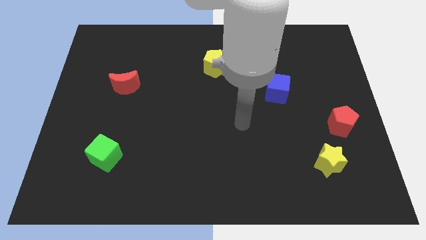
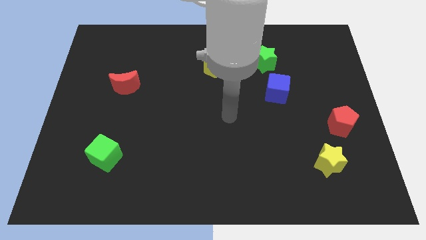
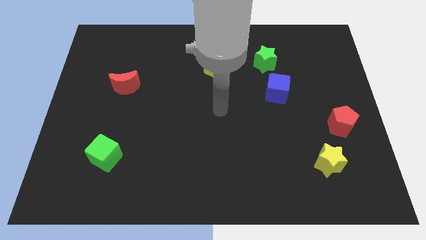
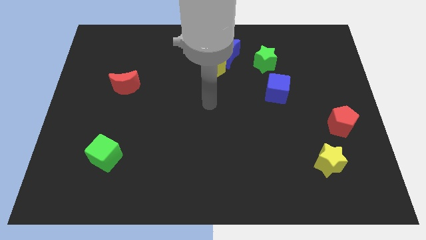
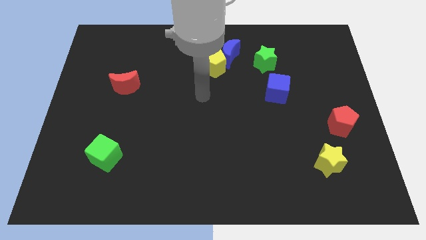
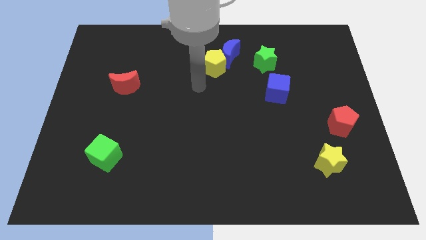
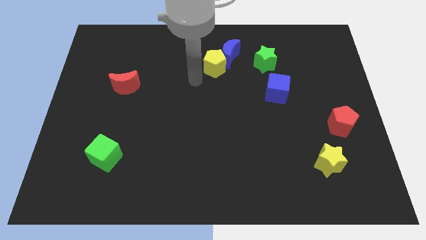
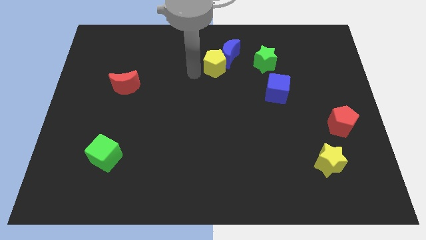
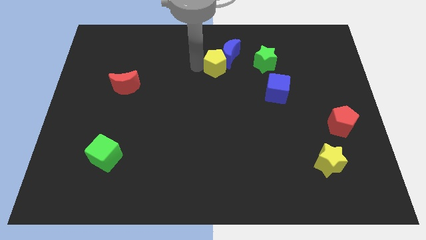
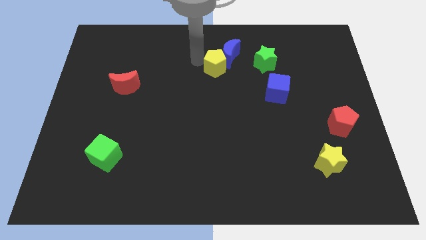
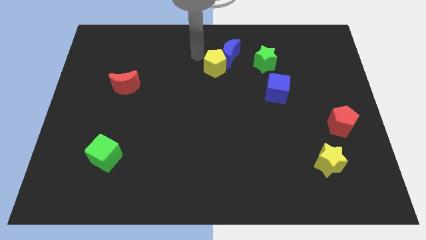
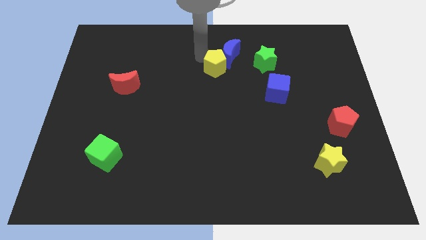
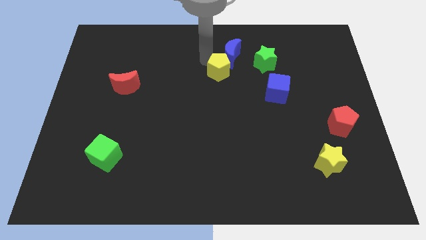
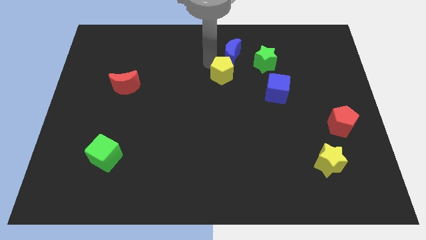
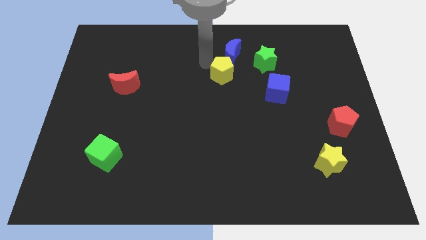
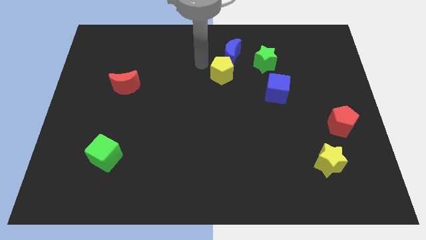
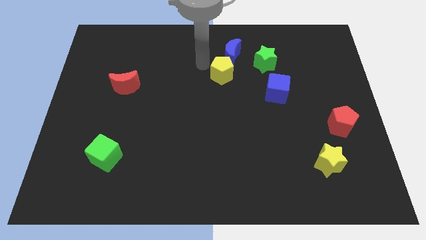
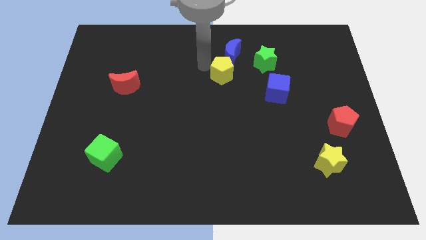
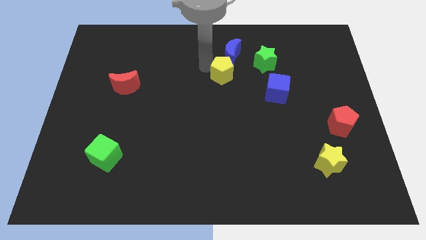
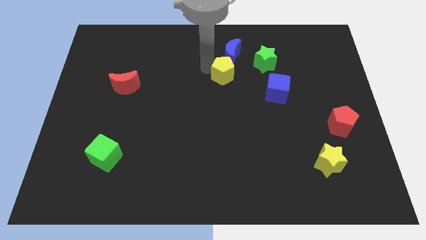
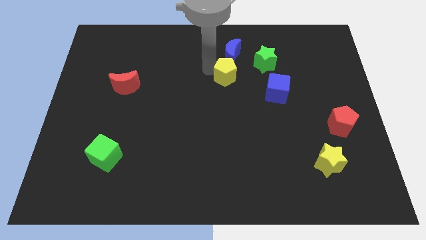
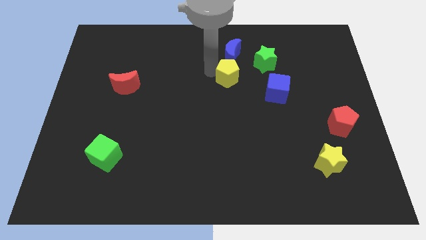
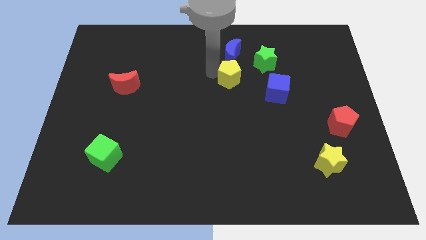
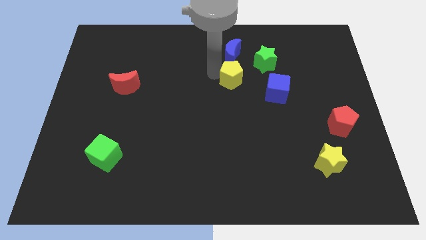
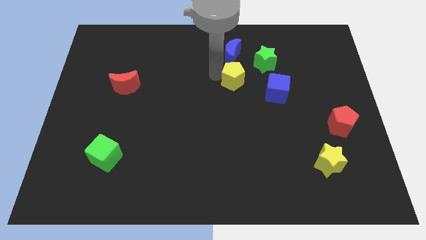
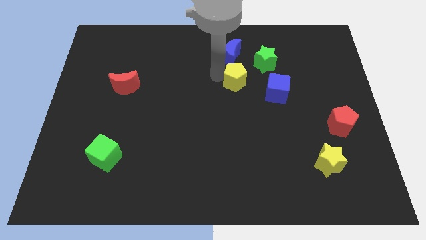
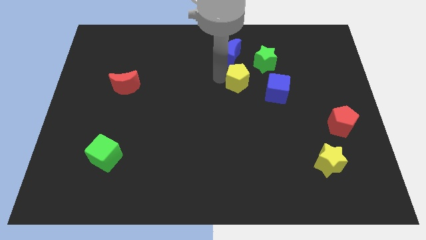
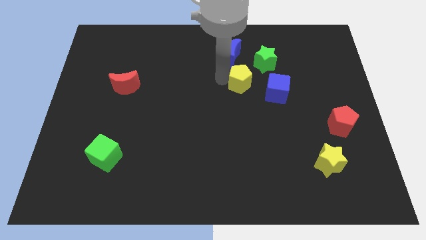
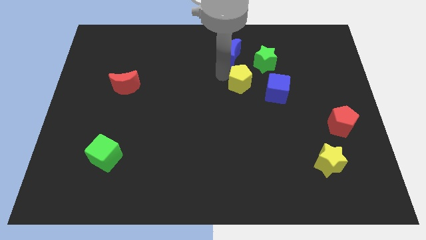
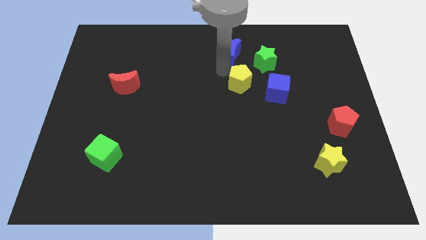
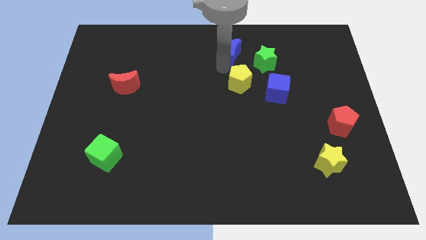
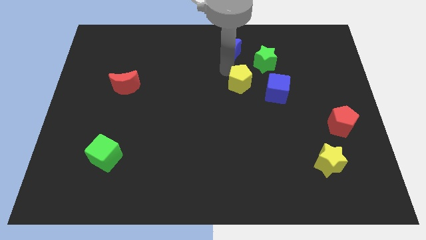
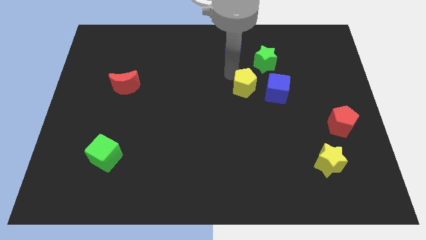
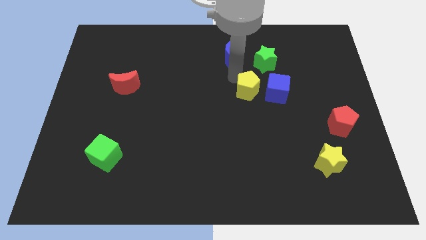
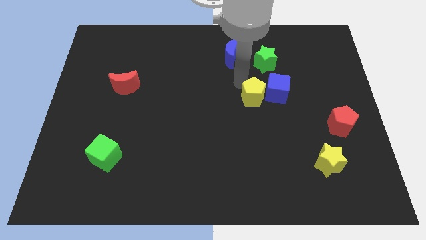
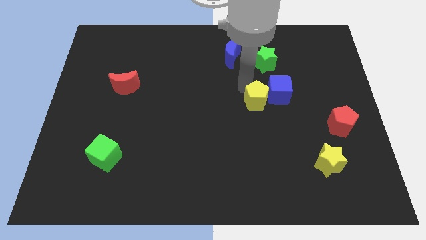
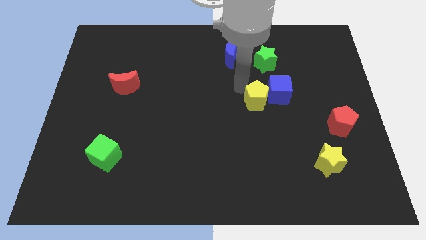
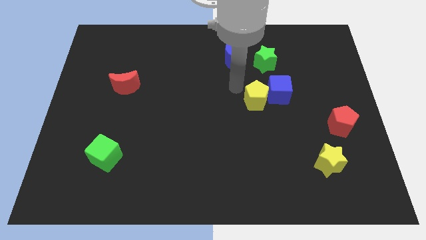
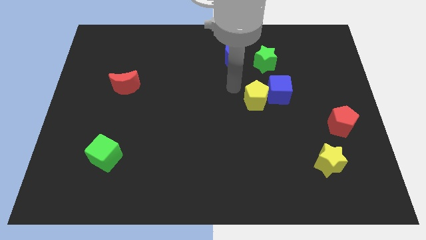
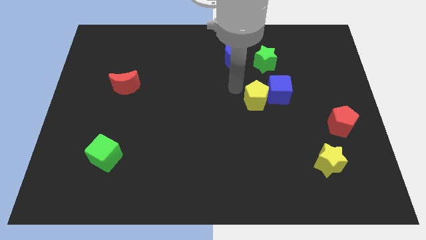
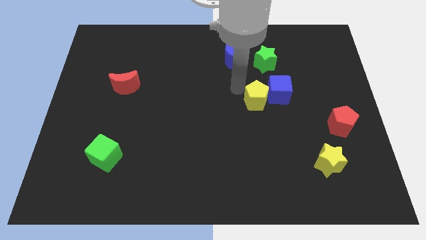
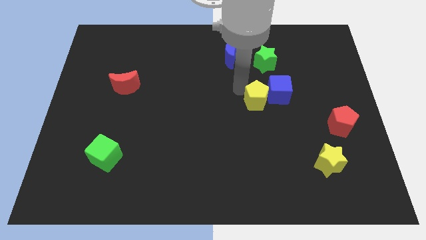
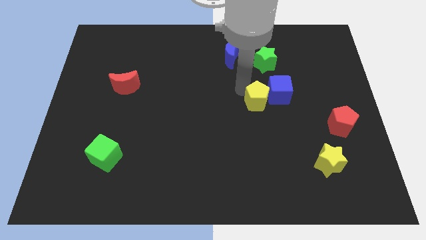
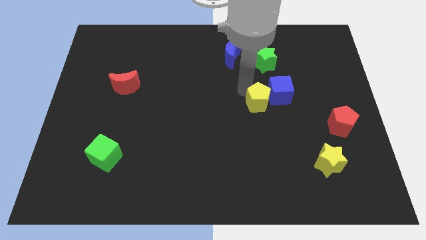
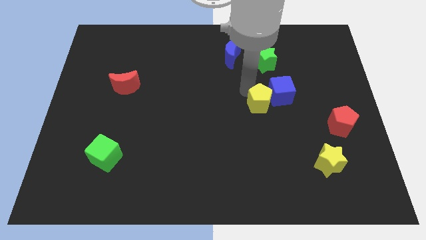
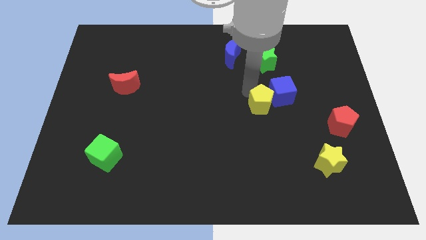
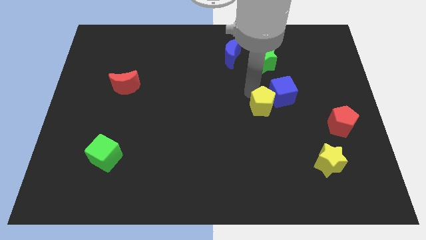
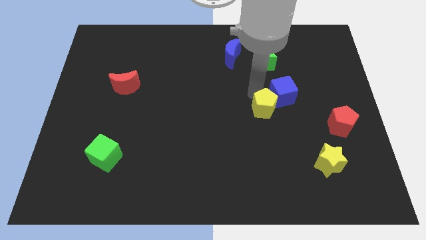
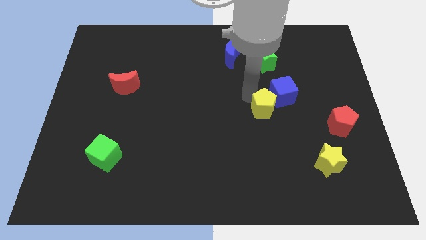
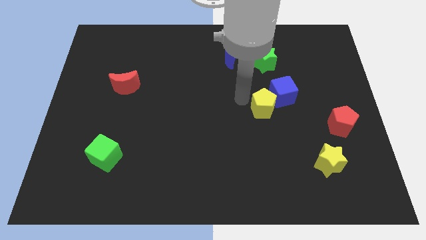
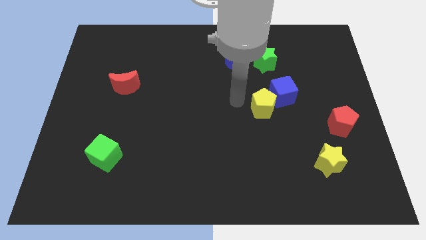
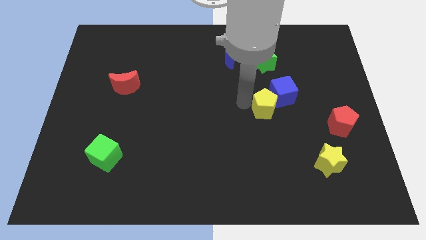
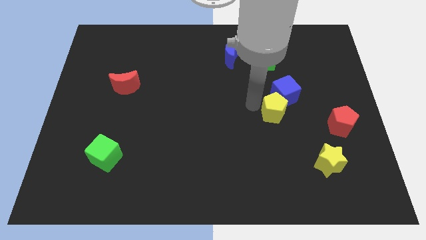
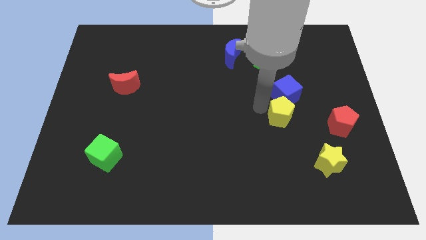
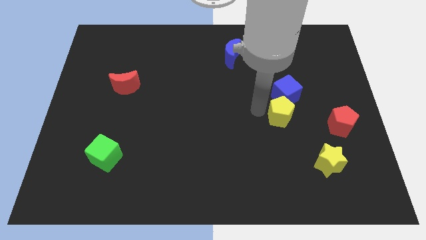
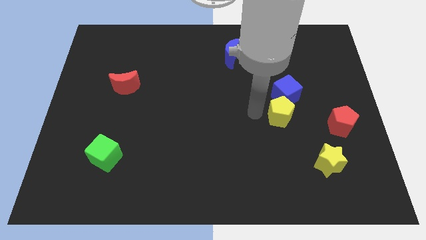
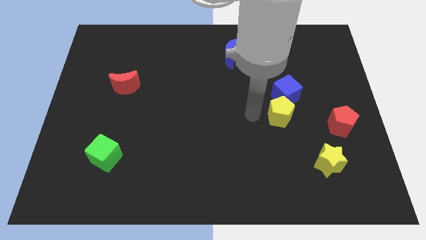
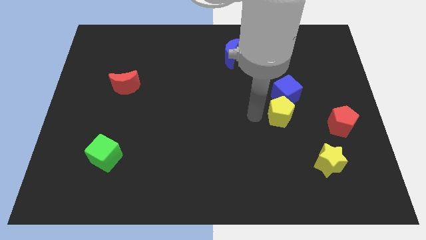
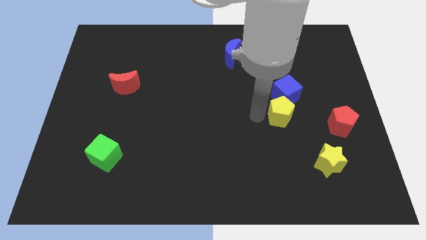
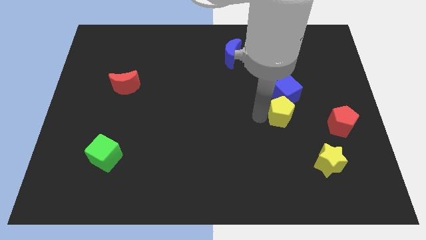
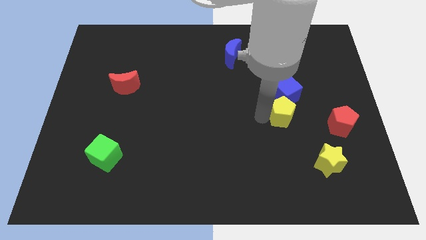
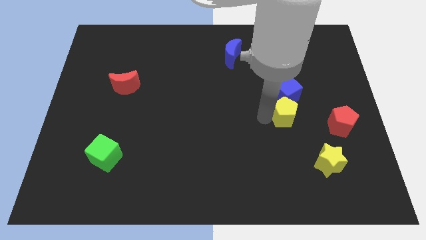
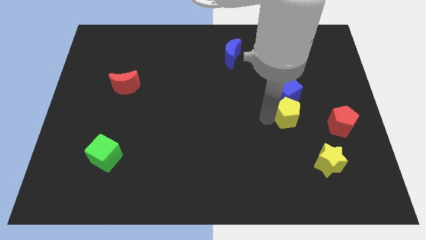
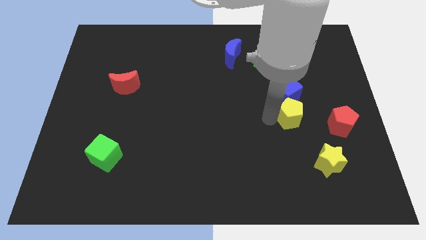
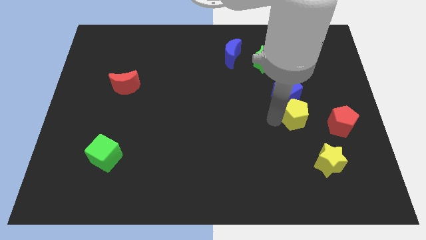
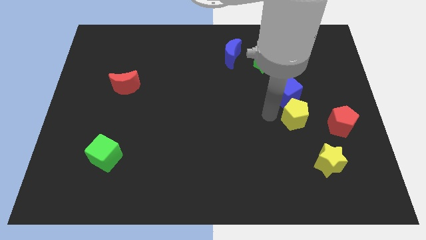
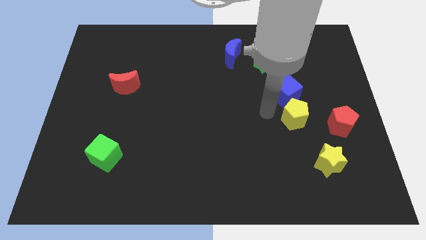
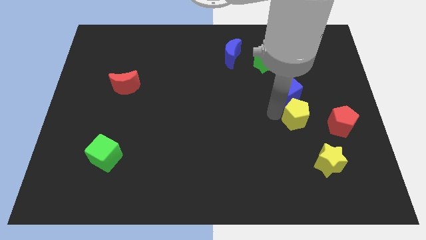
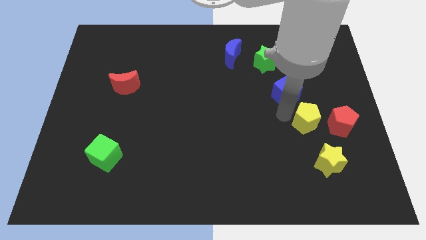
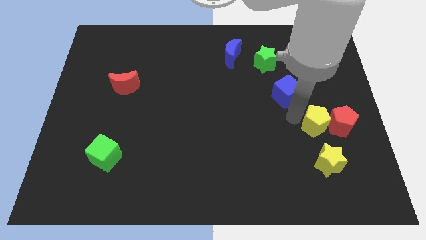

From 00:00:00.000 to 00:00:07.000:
put the yellow pentagon to the red pentagon
